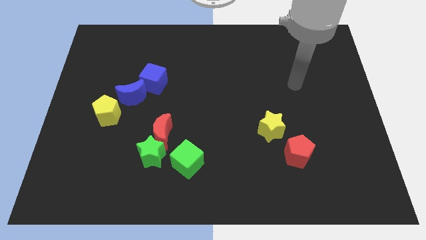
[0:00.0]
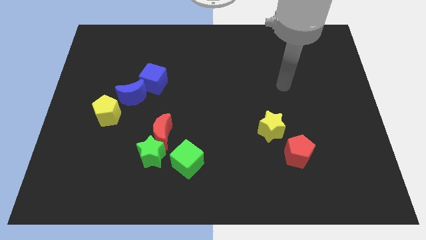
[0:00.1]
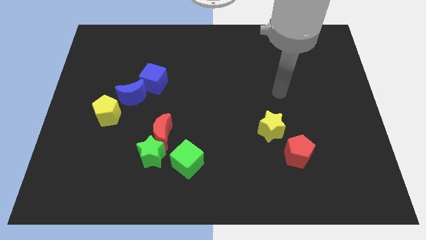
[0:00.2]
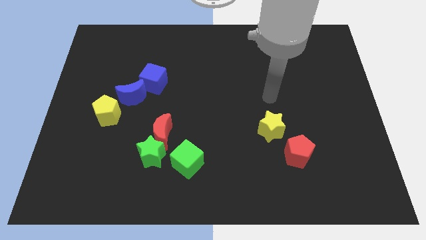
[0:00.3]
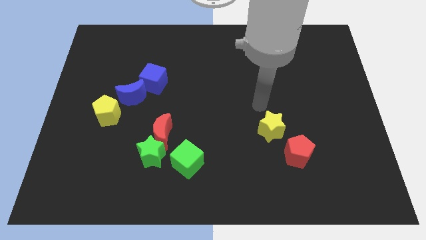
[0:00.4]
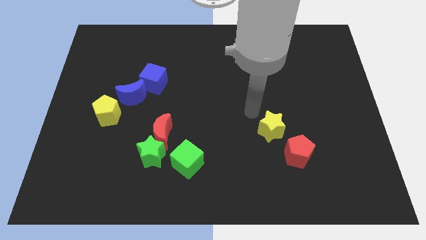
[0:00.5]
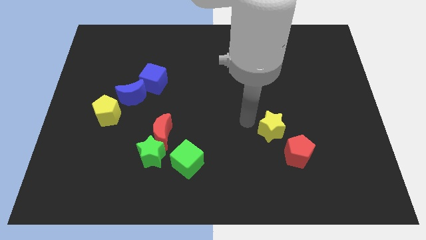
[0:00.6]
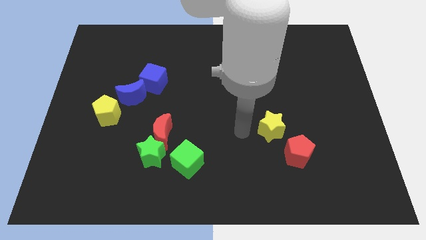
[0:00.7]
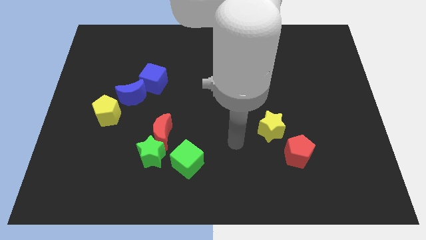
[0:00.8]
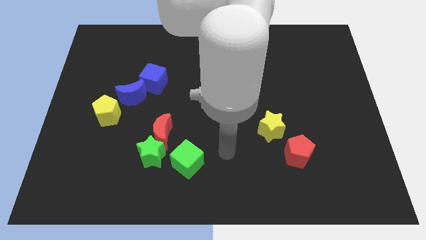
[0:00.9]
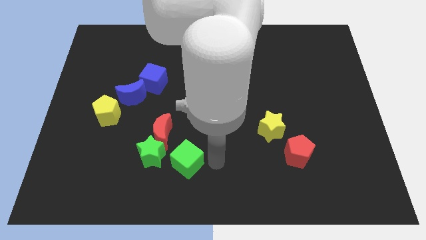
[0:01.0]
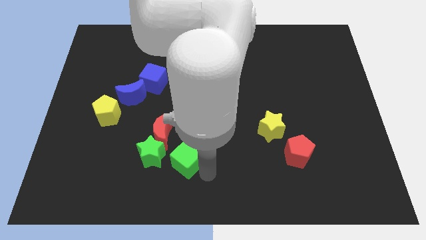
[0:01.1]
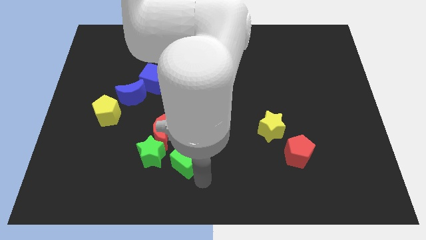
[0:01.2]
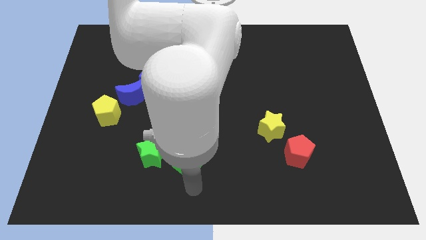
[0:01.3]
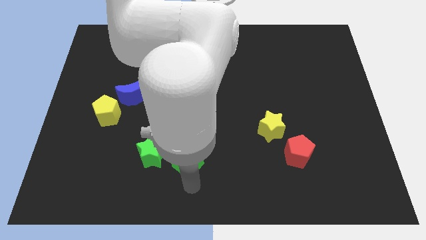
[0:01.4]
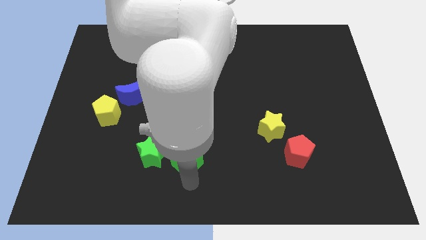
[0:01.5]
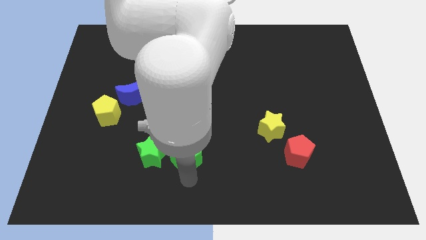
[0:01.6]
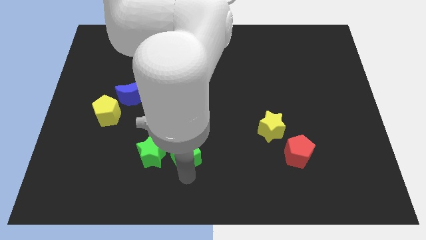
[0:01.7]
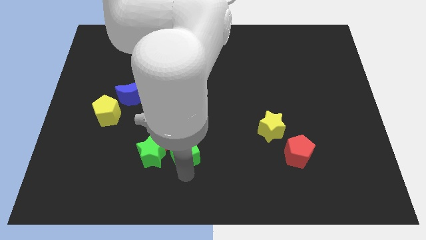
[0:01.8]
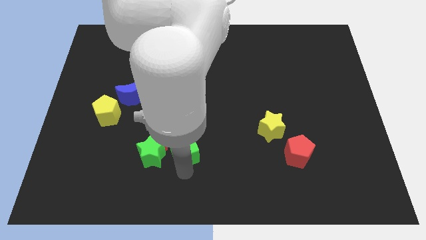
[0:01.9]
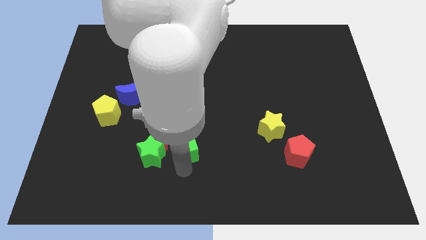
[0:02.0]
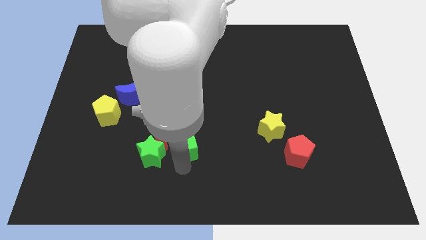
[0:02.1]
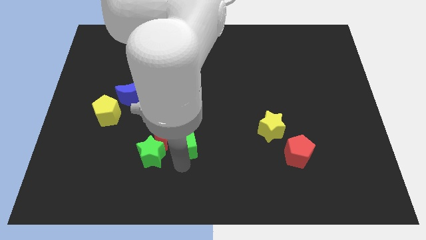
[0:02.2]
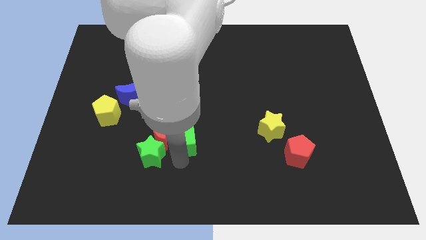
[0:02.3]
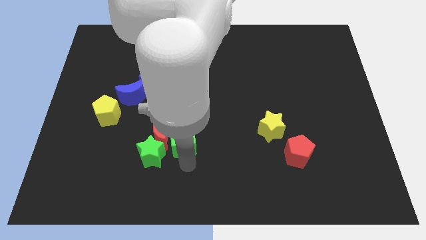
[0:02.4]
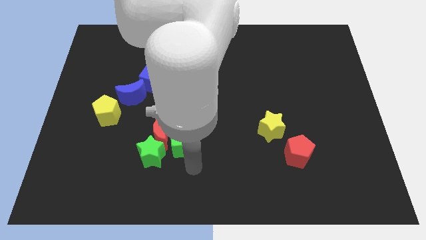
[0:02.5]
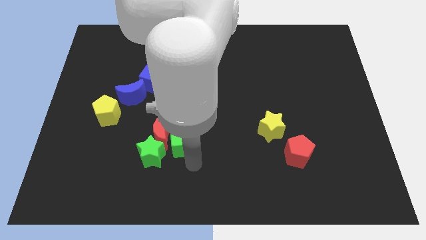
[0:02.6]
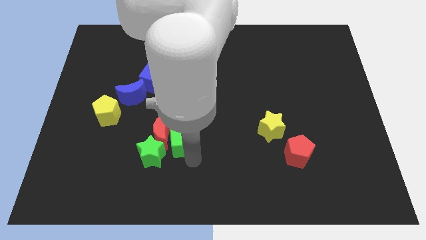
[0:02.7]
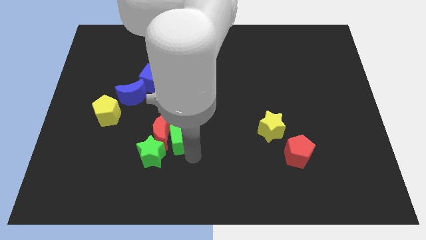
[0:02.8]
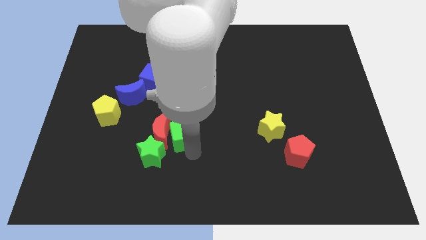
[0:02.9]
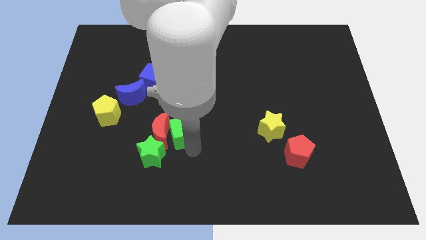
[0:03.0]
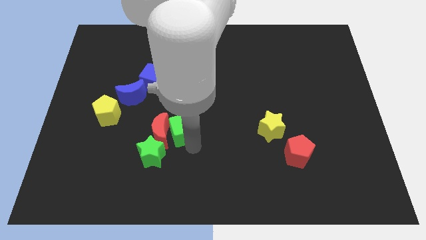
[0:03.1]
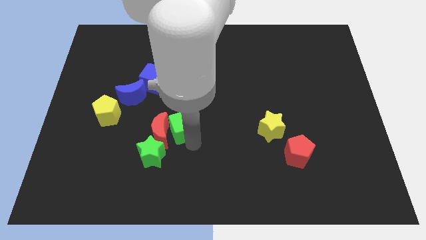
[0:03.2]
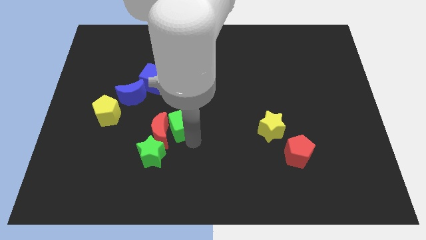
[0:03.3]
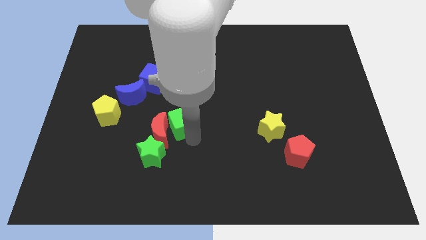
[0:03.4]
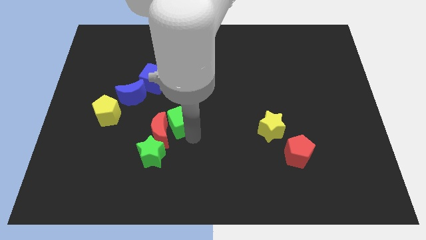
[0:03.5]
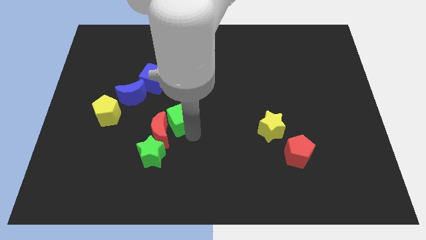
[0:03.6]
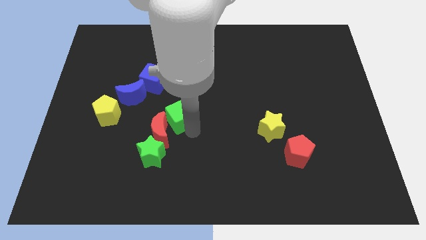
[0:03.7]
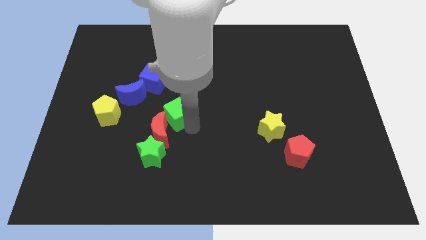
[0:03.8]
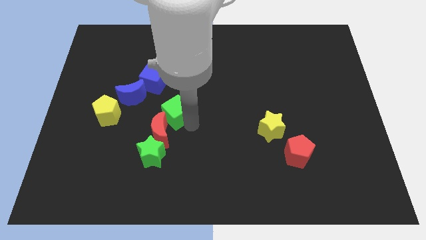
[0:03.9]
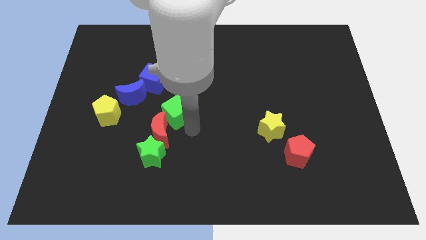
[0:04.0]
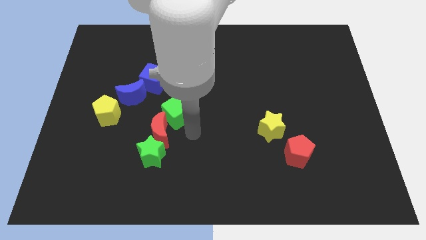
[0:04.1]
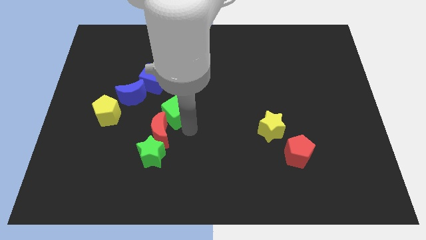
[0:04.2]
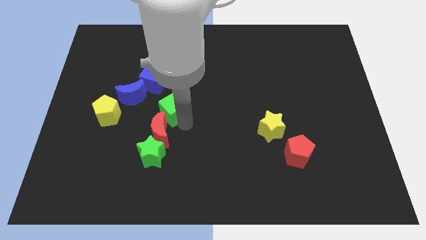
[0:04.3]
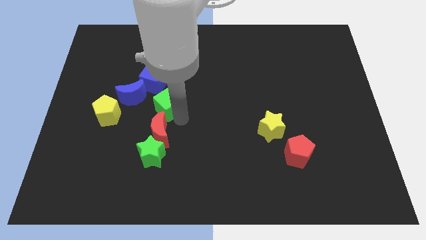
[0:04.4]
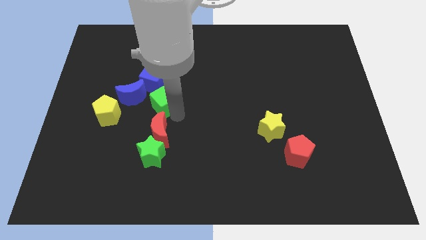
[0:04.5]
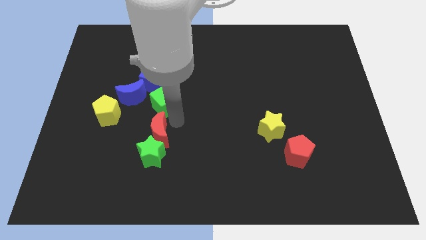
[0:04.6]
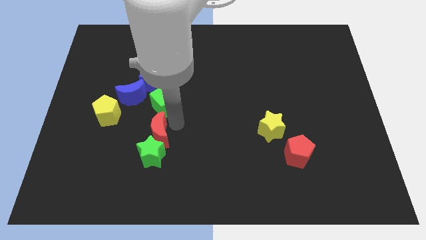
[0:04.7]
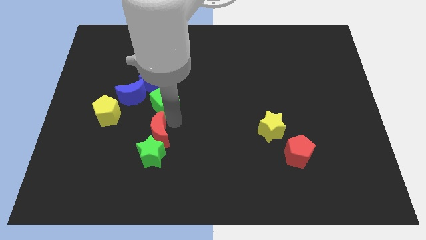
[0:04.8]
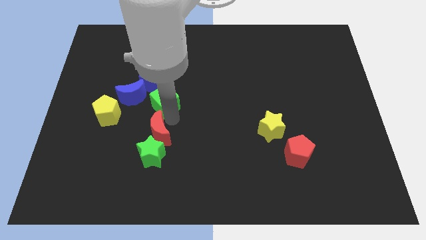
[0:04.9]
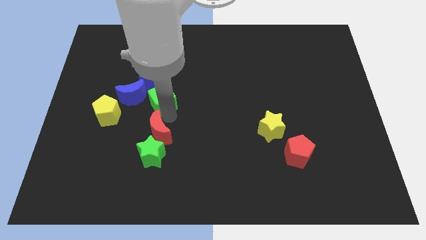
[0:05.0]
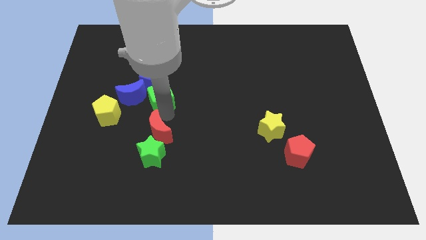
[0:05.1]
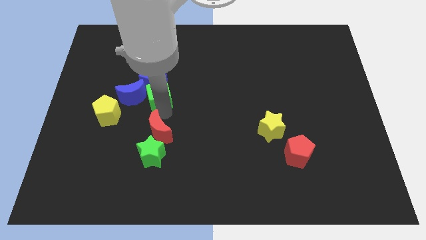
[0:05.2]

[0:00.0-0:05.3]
move the green cube next to the blue cube

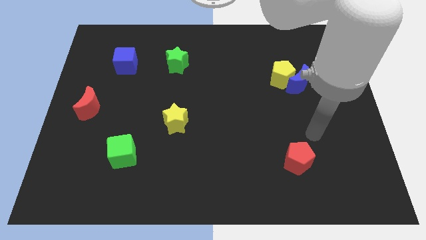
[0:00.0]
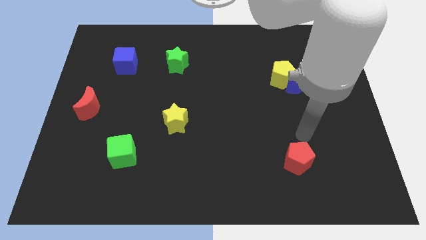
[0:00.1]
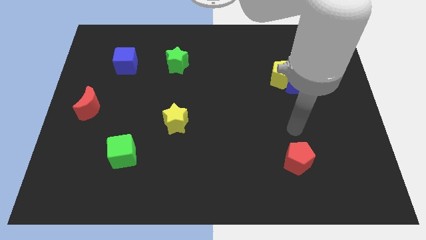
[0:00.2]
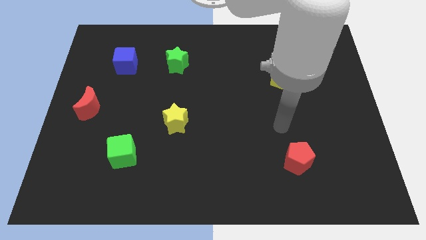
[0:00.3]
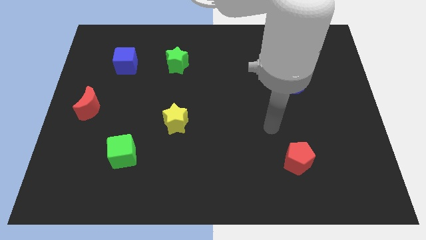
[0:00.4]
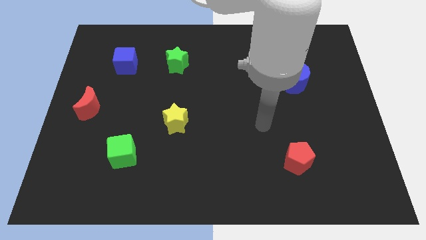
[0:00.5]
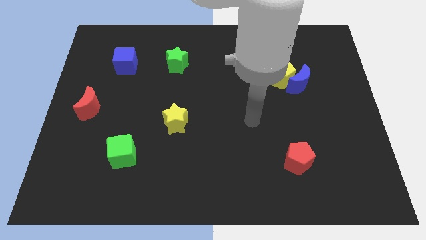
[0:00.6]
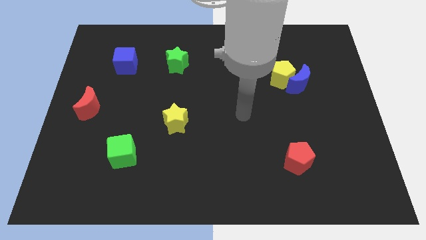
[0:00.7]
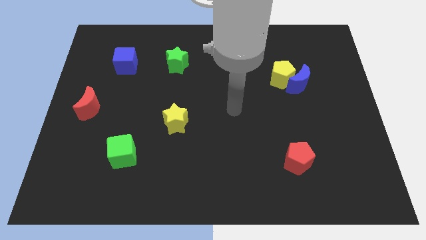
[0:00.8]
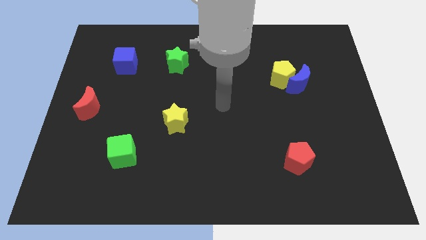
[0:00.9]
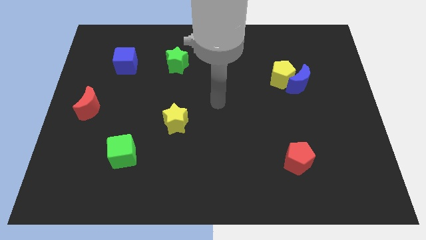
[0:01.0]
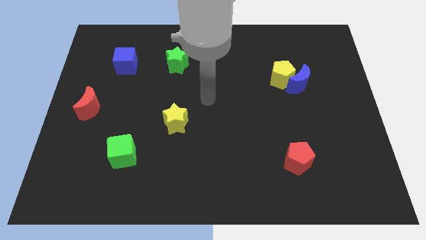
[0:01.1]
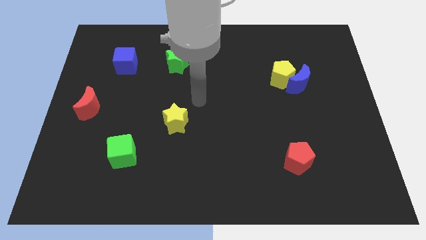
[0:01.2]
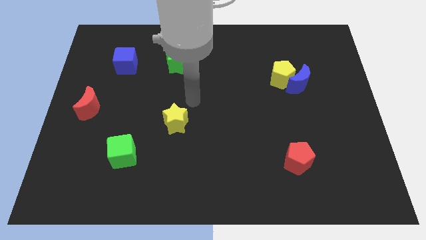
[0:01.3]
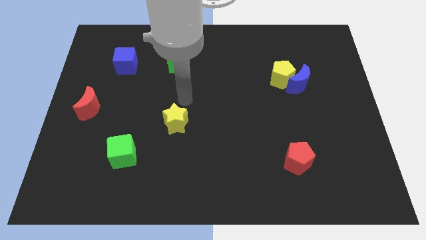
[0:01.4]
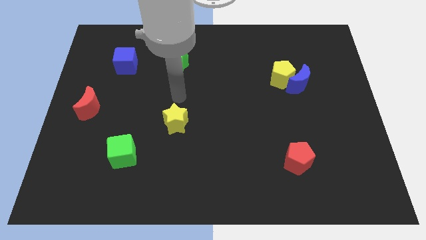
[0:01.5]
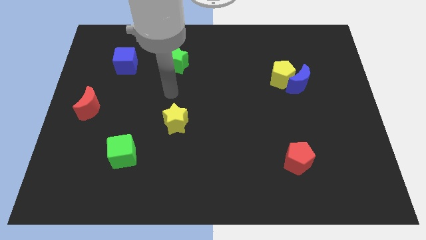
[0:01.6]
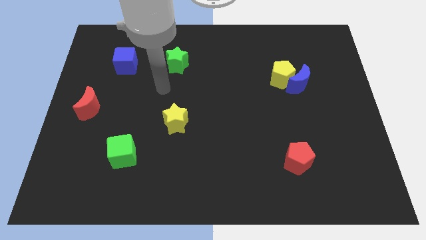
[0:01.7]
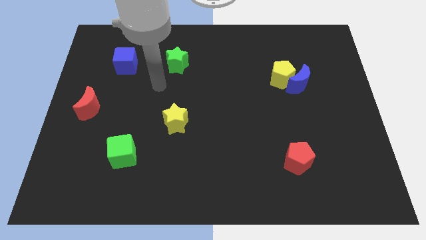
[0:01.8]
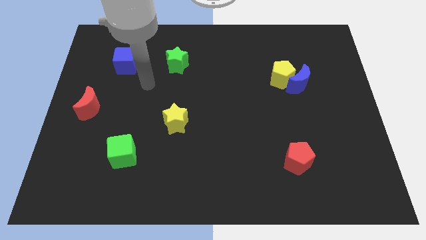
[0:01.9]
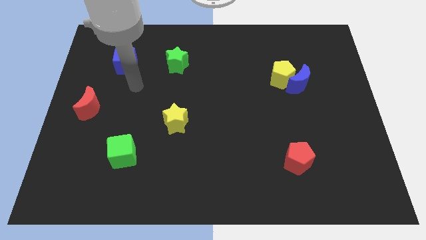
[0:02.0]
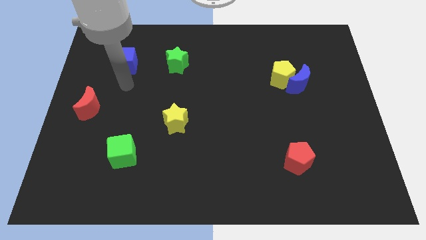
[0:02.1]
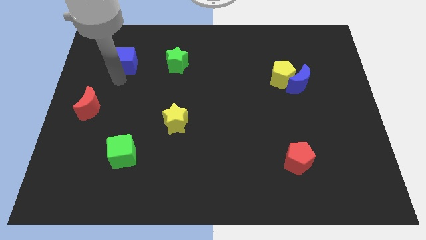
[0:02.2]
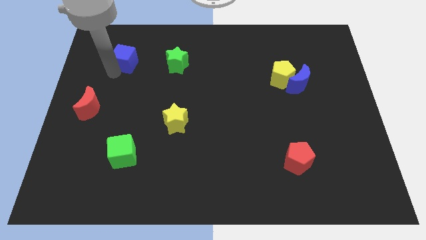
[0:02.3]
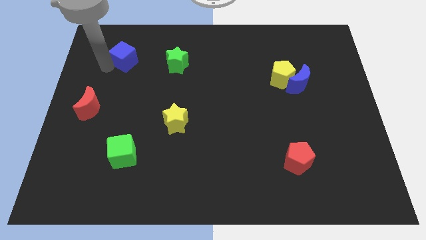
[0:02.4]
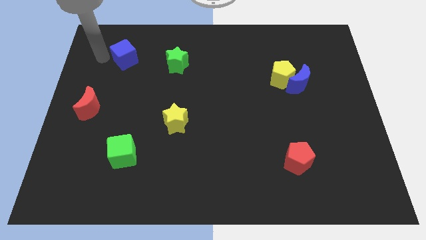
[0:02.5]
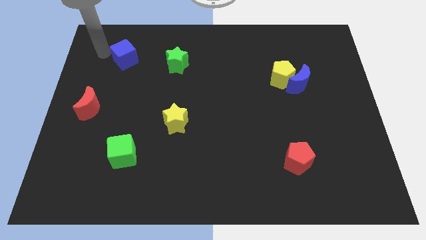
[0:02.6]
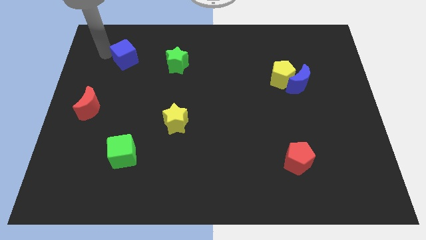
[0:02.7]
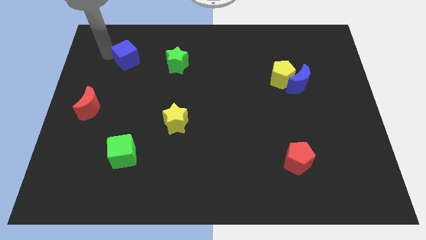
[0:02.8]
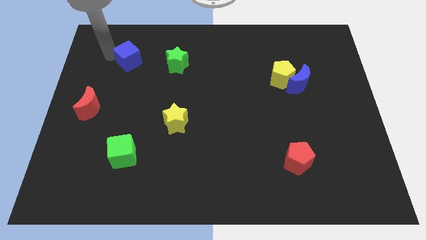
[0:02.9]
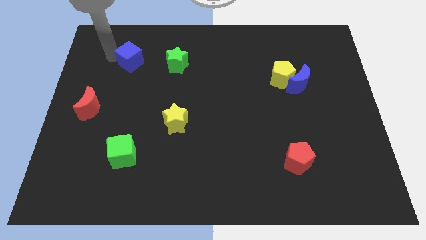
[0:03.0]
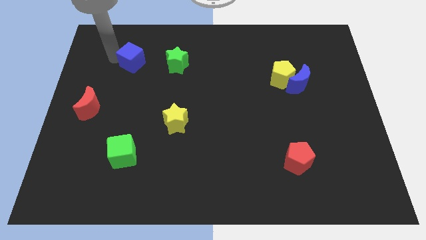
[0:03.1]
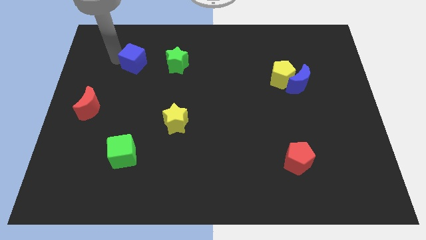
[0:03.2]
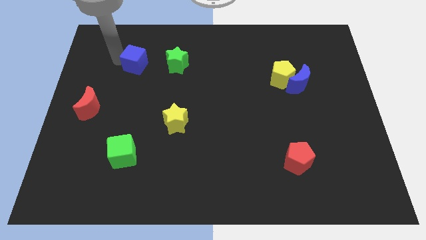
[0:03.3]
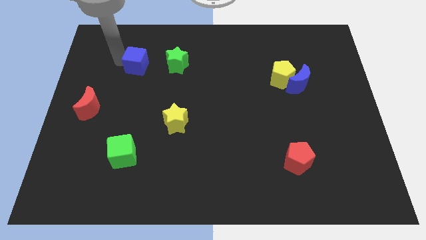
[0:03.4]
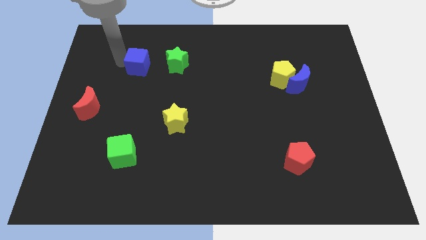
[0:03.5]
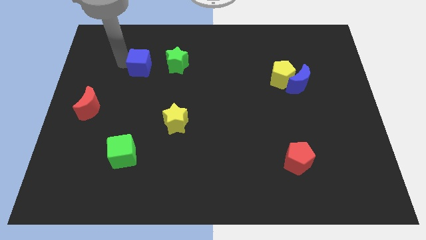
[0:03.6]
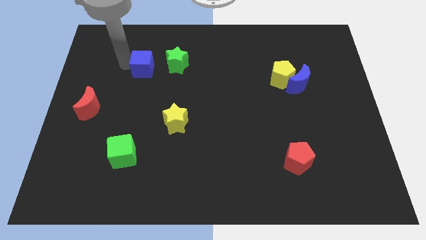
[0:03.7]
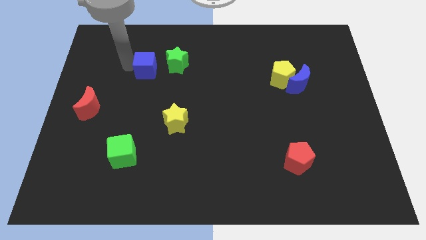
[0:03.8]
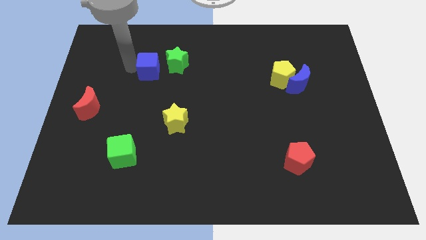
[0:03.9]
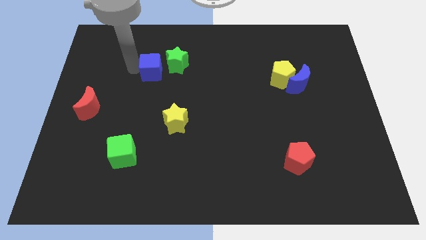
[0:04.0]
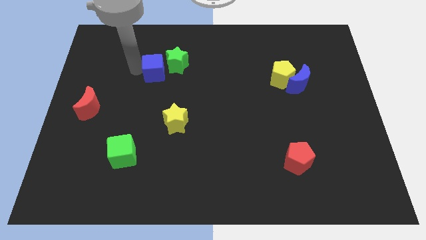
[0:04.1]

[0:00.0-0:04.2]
move the blue cube next to the green star
